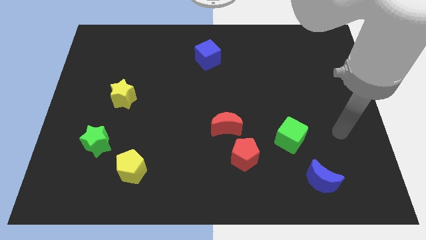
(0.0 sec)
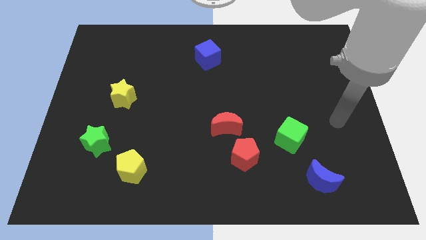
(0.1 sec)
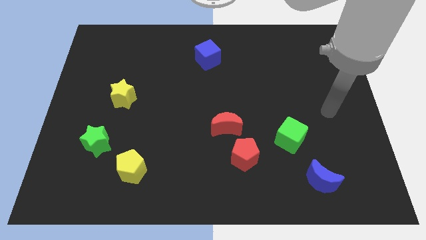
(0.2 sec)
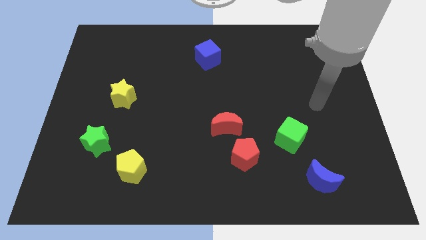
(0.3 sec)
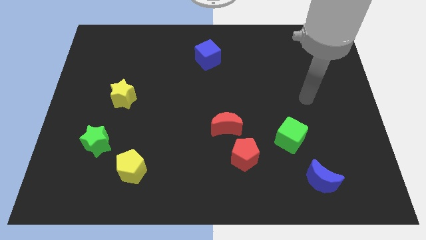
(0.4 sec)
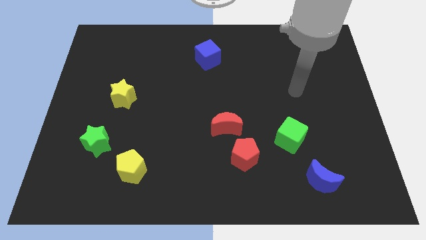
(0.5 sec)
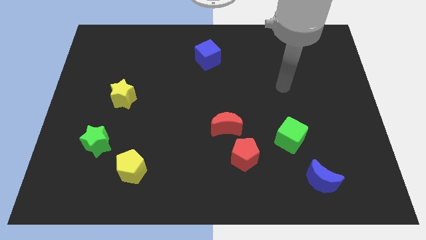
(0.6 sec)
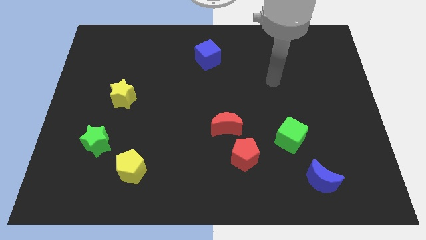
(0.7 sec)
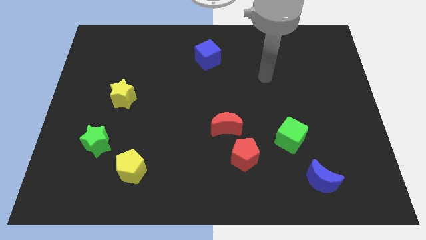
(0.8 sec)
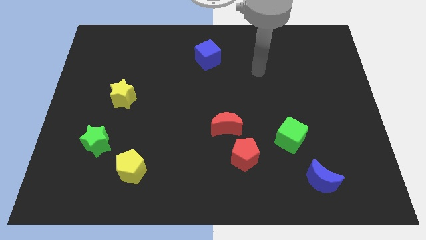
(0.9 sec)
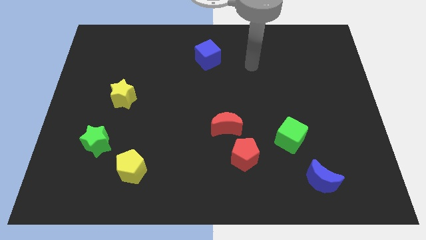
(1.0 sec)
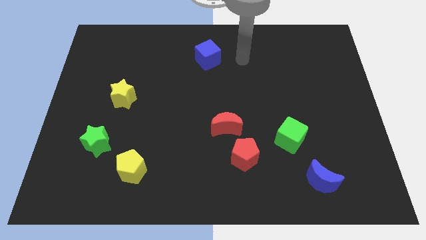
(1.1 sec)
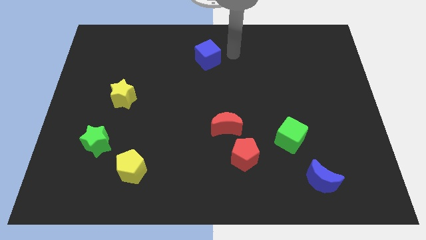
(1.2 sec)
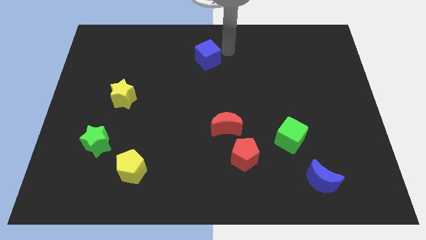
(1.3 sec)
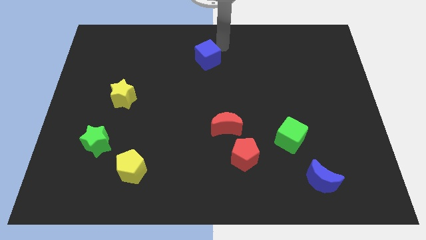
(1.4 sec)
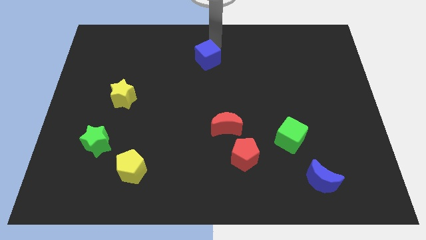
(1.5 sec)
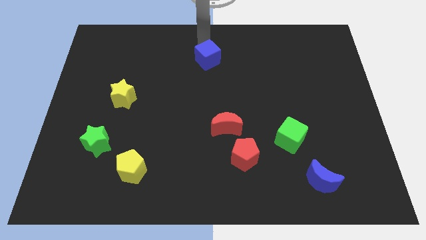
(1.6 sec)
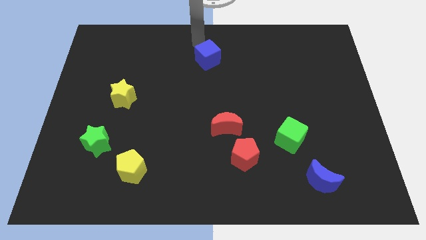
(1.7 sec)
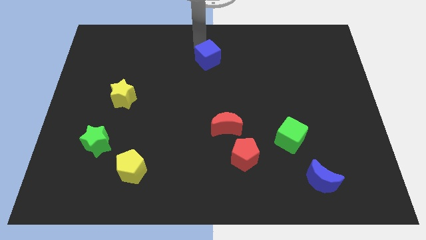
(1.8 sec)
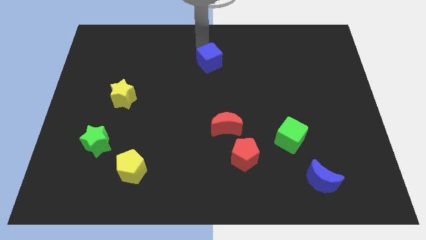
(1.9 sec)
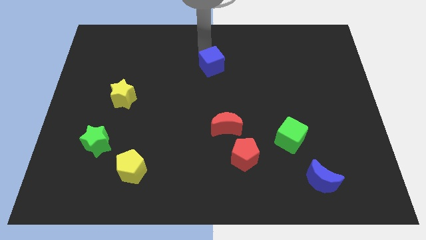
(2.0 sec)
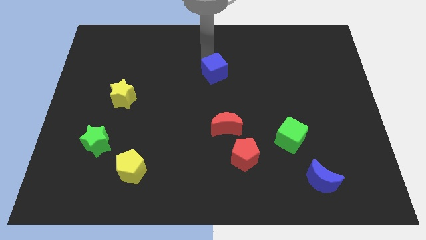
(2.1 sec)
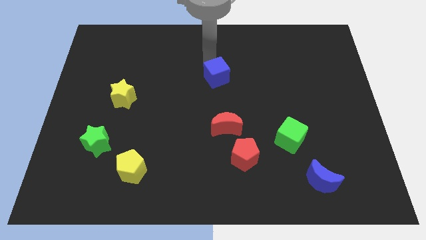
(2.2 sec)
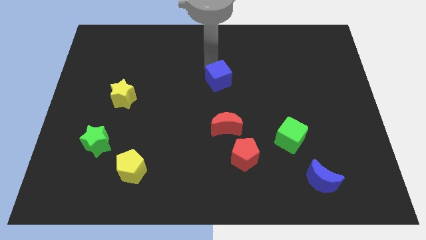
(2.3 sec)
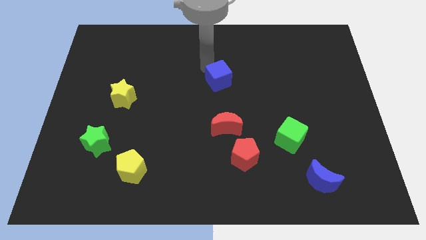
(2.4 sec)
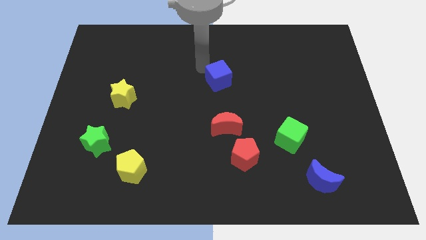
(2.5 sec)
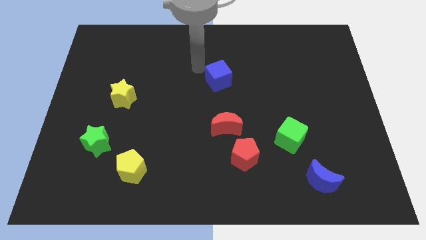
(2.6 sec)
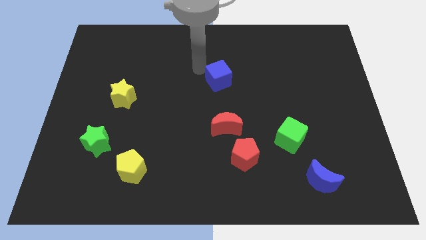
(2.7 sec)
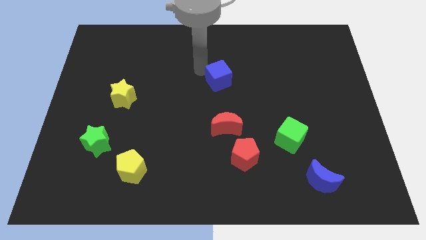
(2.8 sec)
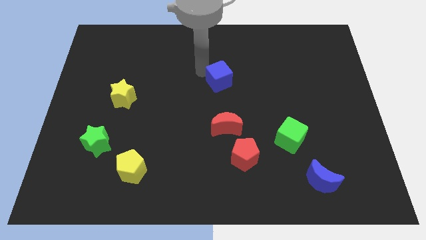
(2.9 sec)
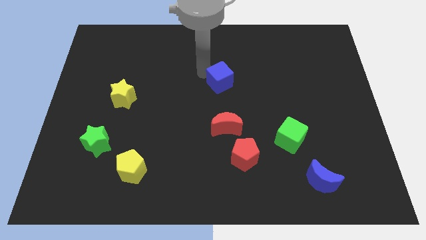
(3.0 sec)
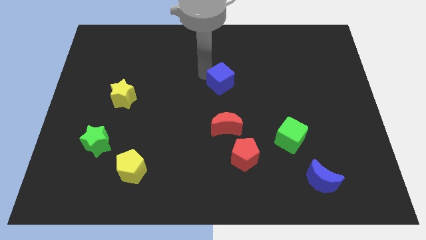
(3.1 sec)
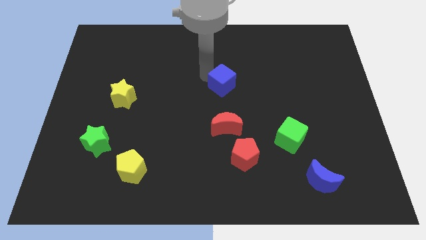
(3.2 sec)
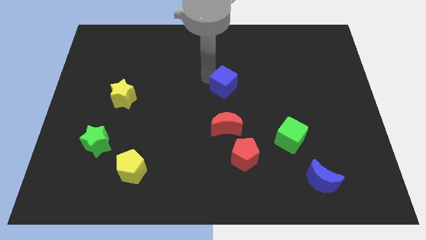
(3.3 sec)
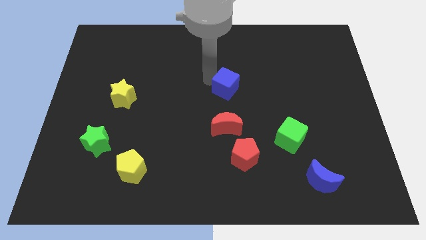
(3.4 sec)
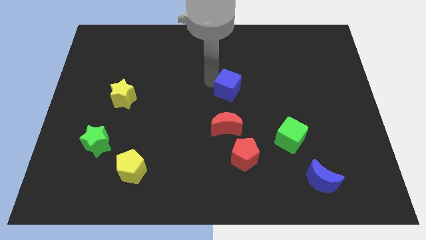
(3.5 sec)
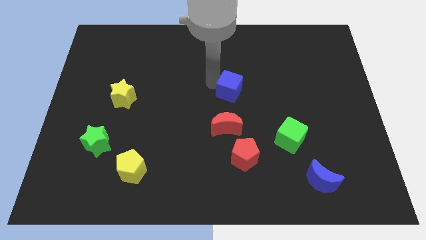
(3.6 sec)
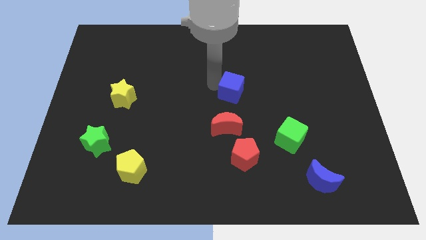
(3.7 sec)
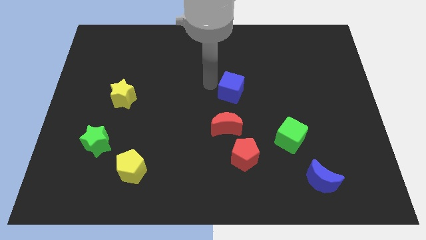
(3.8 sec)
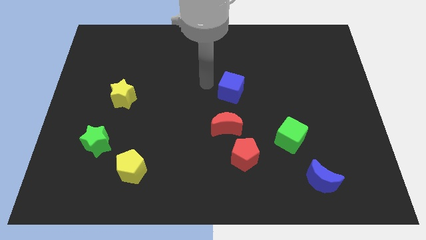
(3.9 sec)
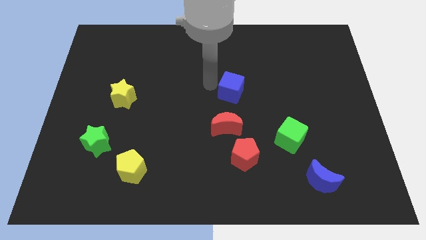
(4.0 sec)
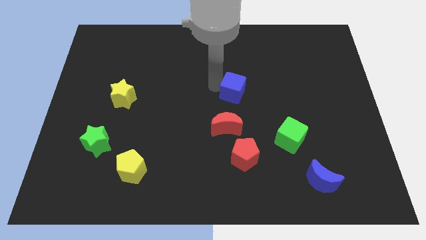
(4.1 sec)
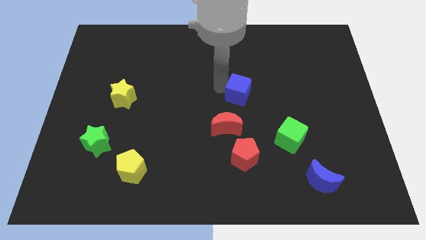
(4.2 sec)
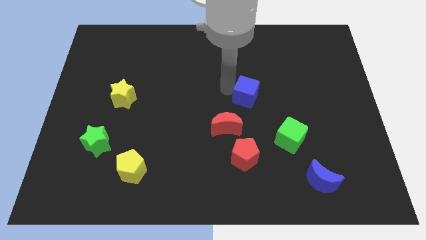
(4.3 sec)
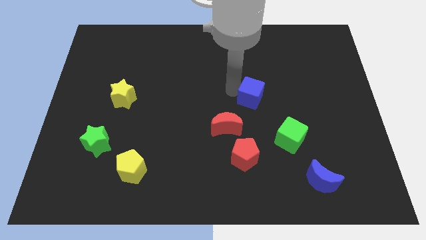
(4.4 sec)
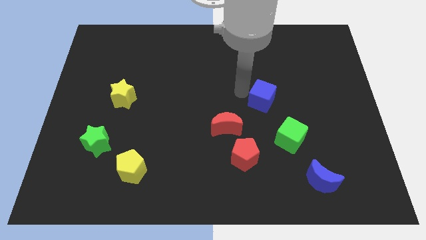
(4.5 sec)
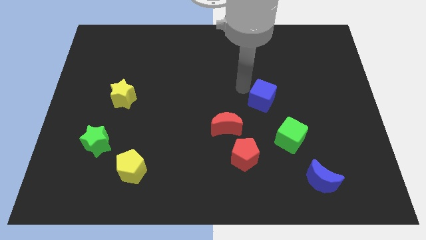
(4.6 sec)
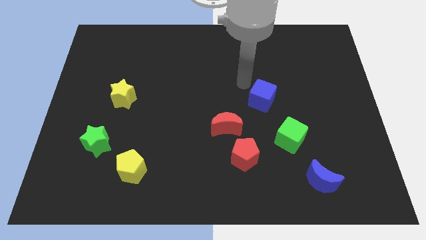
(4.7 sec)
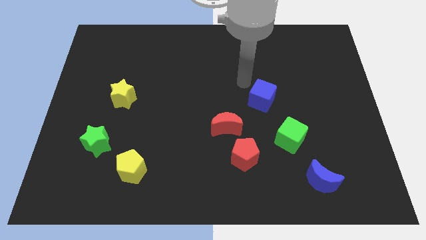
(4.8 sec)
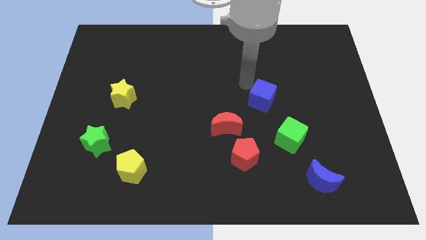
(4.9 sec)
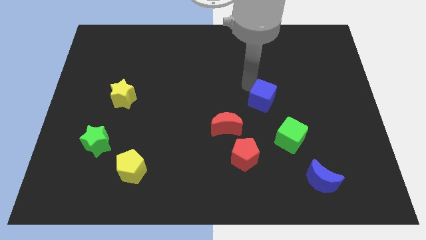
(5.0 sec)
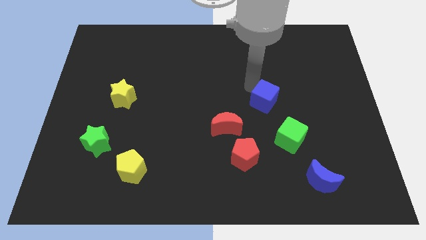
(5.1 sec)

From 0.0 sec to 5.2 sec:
slide the blue cube downwards and to the right diagonally

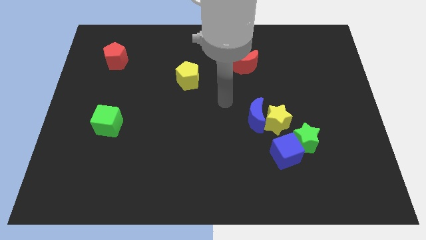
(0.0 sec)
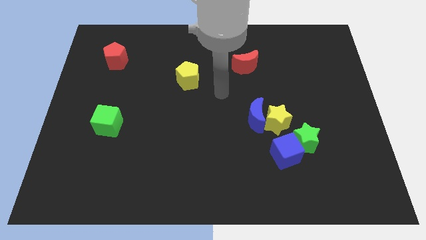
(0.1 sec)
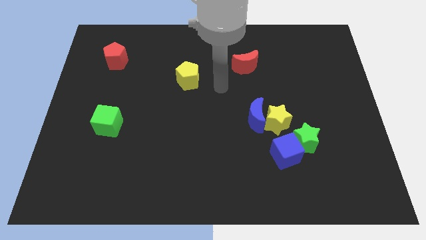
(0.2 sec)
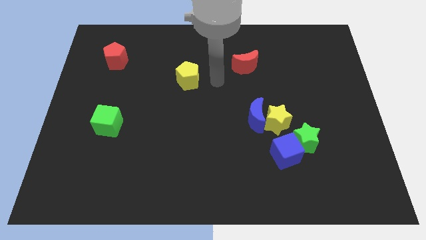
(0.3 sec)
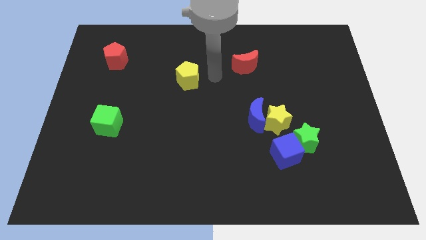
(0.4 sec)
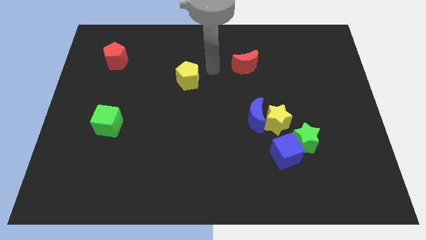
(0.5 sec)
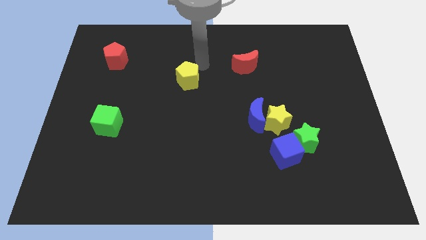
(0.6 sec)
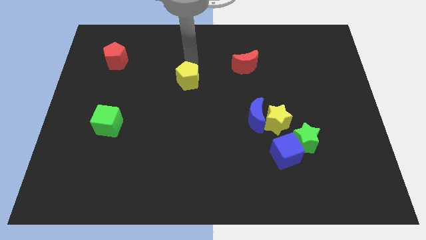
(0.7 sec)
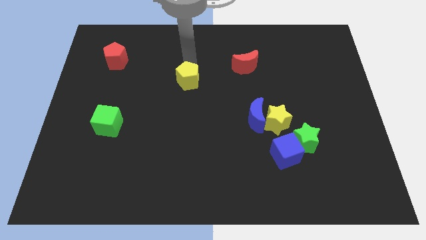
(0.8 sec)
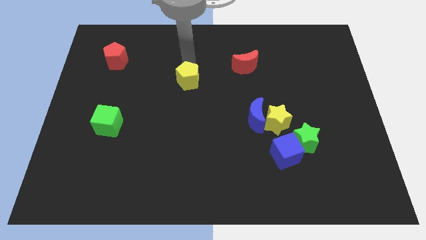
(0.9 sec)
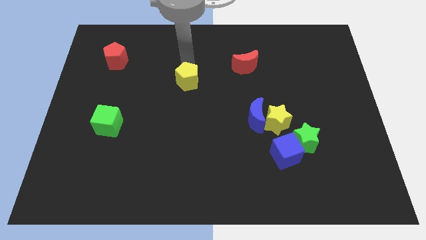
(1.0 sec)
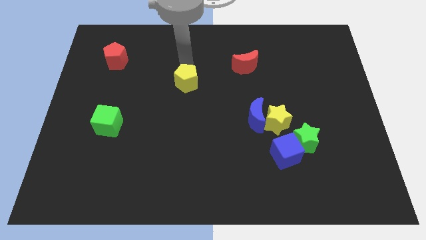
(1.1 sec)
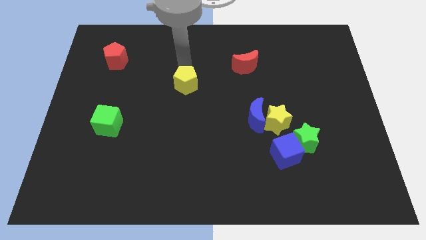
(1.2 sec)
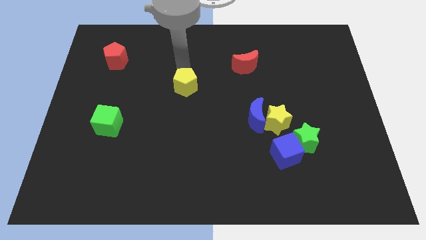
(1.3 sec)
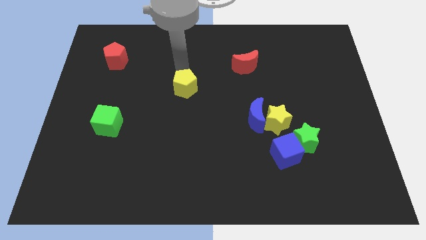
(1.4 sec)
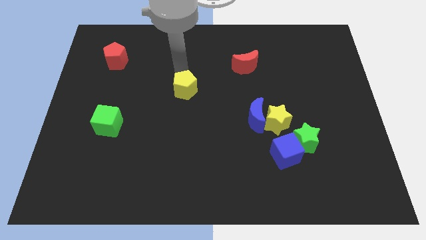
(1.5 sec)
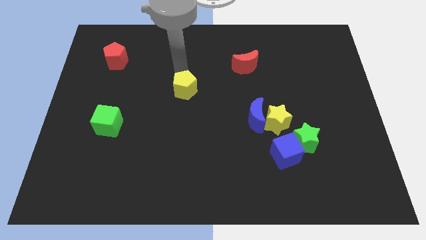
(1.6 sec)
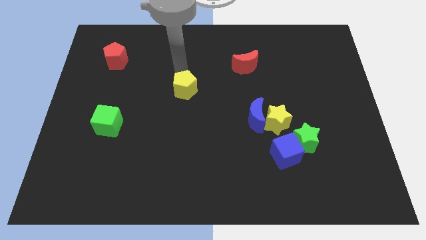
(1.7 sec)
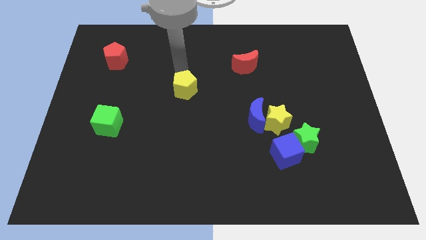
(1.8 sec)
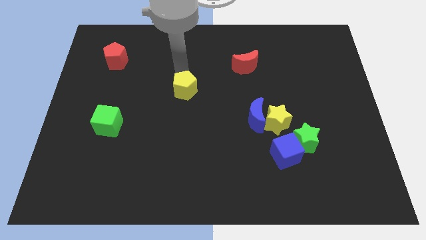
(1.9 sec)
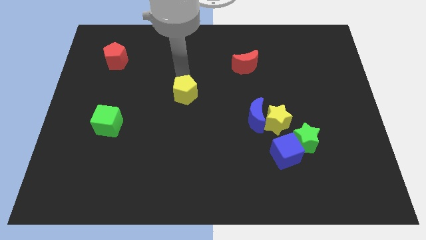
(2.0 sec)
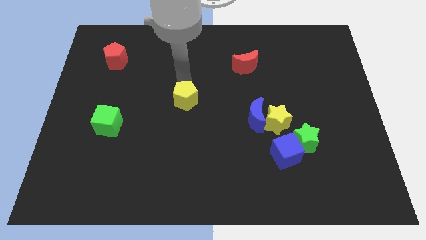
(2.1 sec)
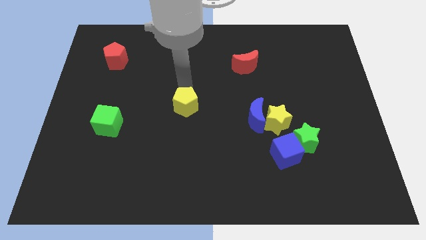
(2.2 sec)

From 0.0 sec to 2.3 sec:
slightly slide the yellow pentagon down

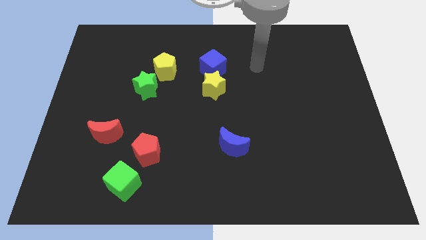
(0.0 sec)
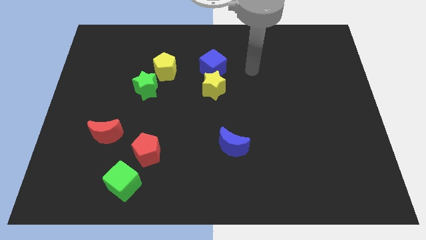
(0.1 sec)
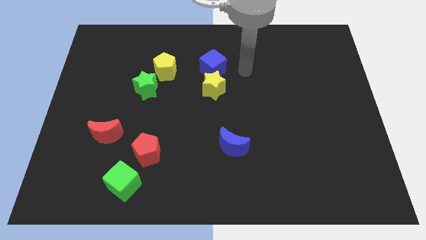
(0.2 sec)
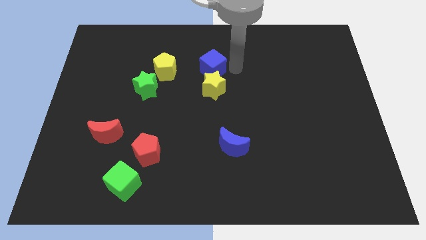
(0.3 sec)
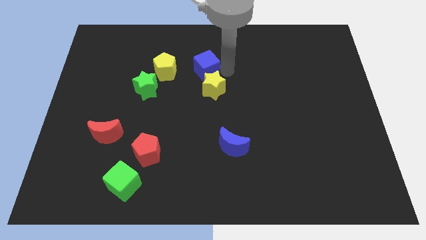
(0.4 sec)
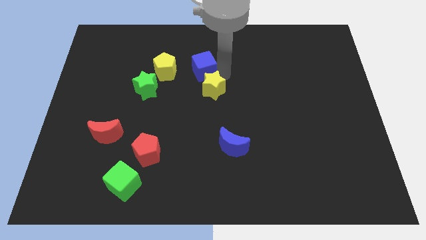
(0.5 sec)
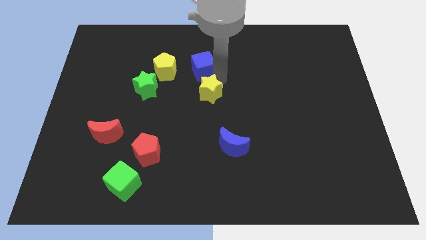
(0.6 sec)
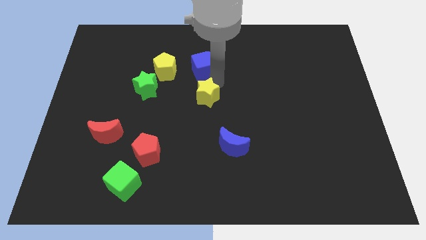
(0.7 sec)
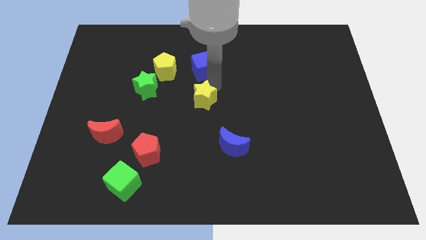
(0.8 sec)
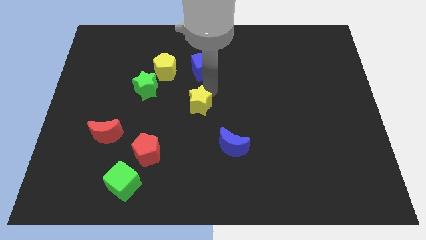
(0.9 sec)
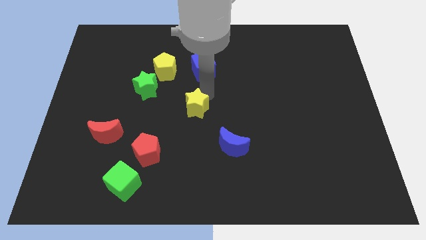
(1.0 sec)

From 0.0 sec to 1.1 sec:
move the yellow star a bit down and to the left diagonally
